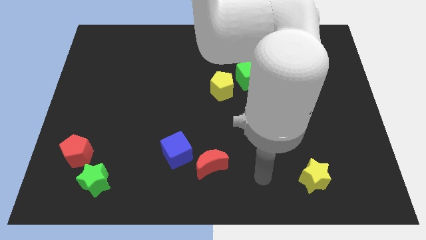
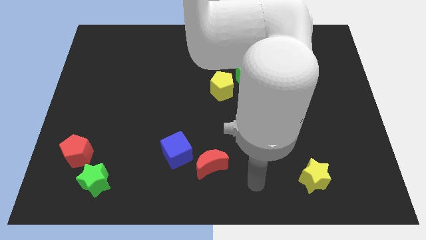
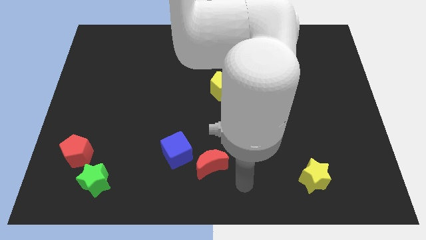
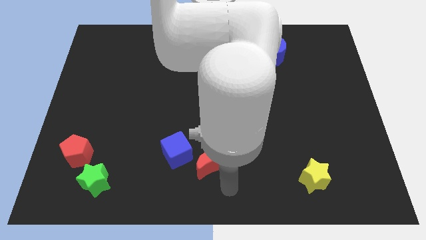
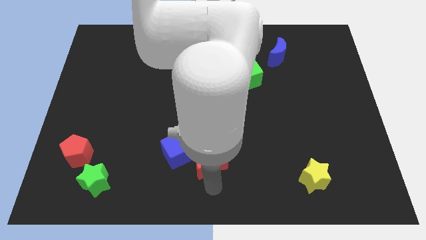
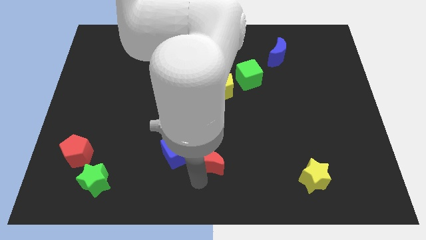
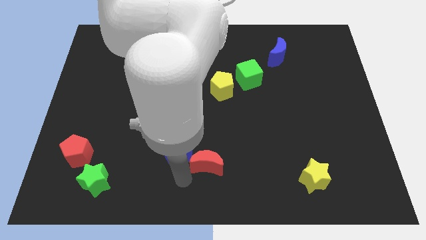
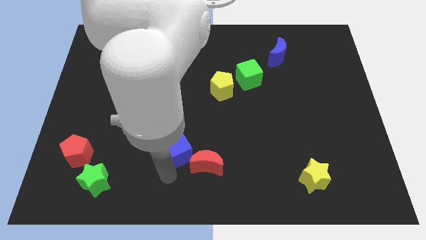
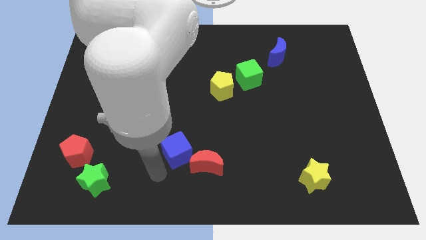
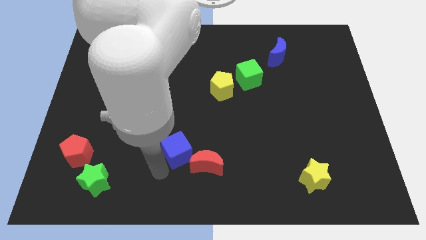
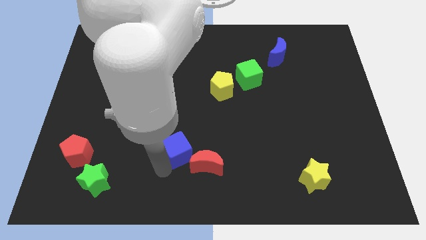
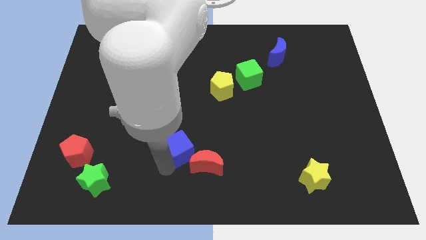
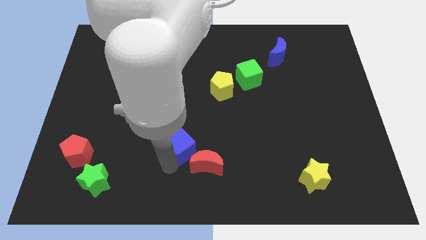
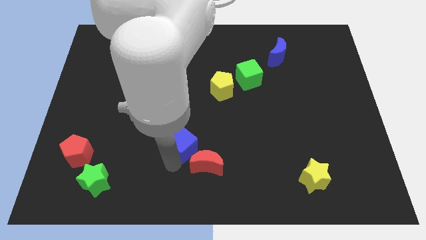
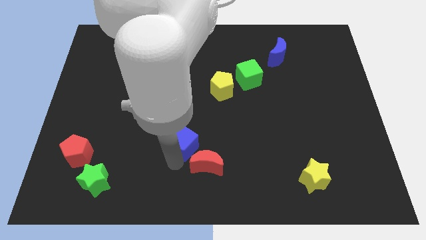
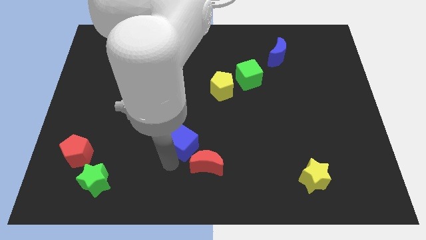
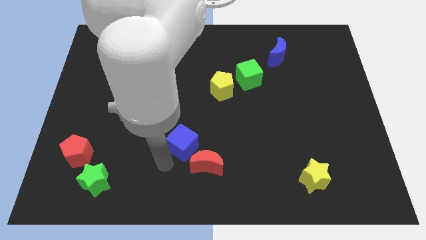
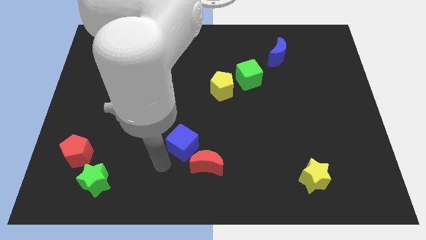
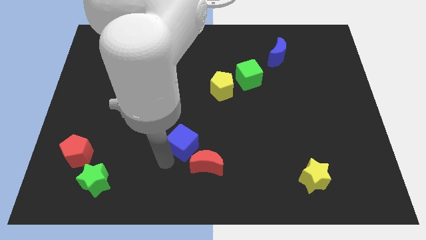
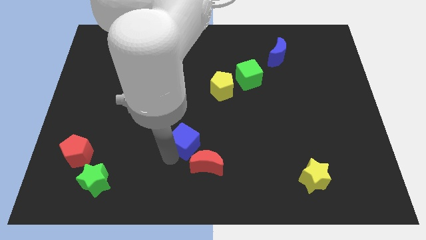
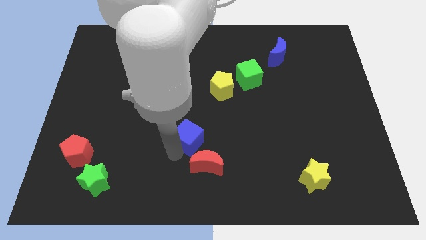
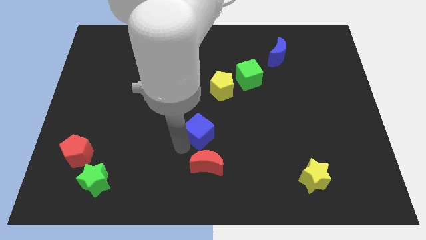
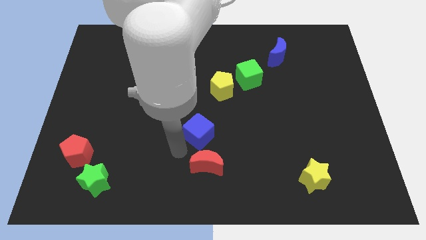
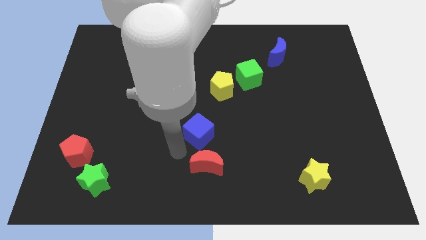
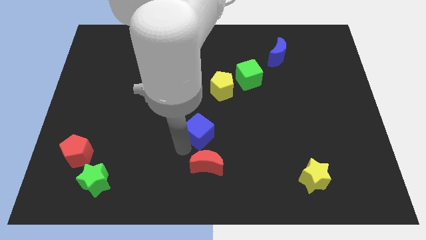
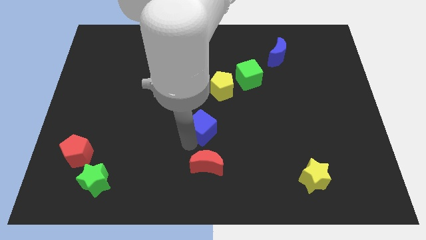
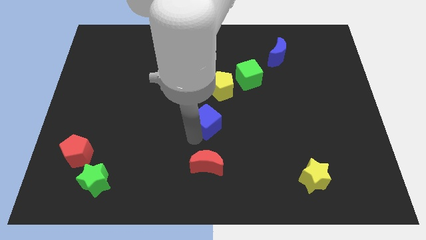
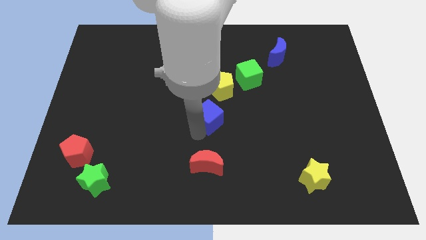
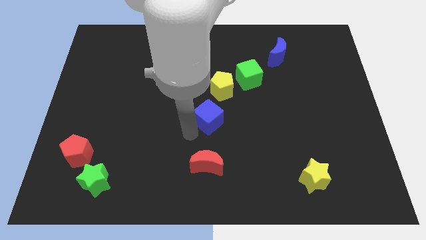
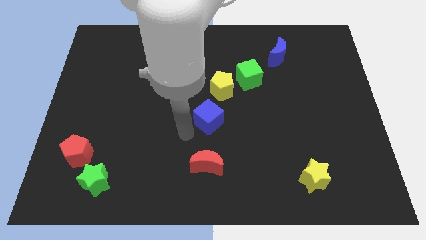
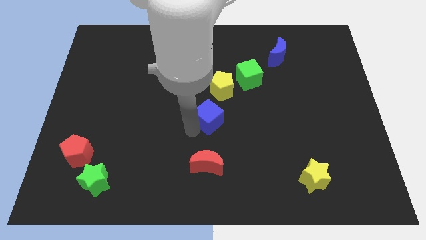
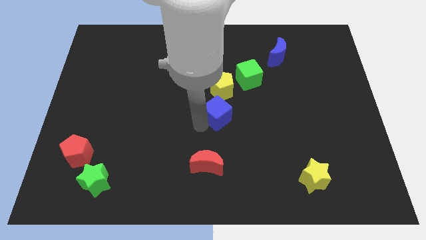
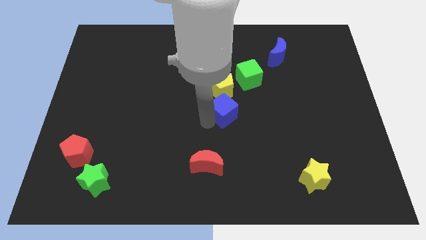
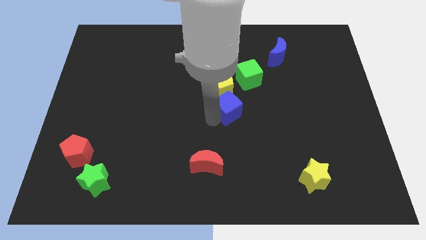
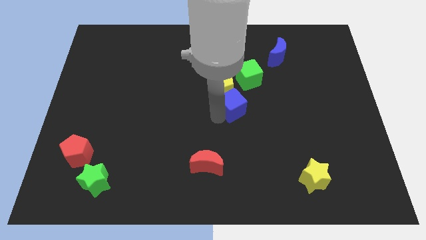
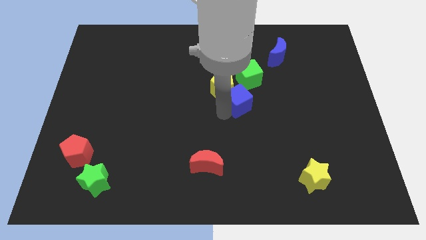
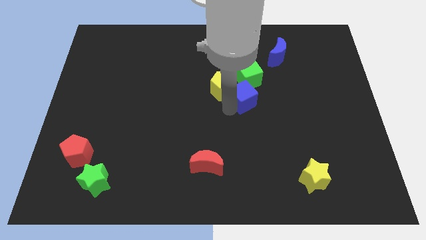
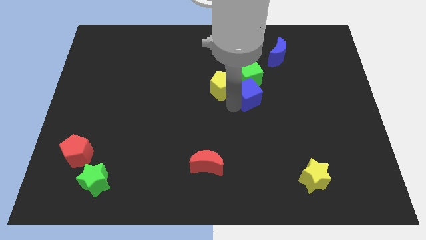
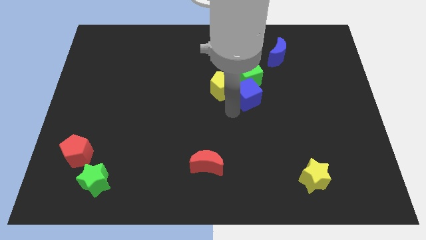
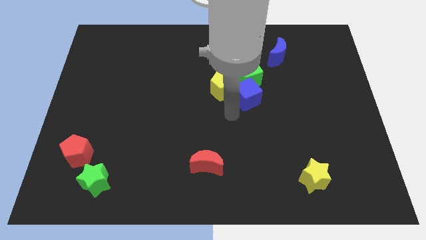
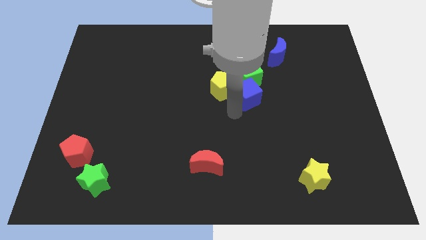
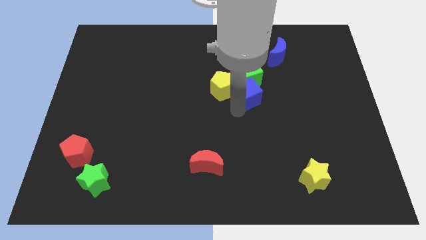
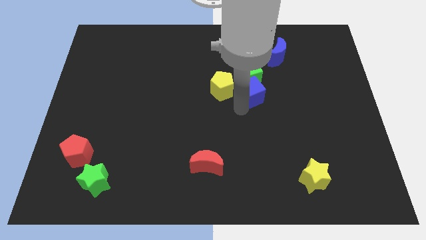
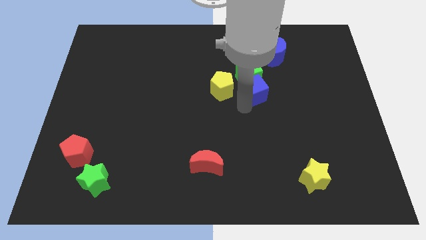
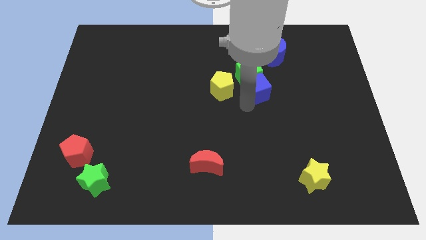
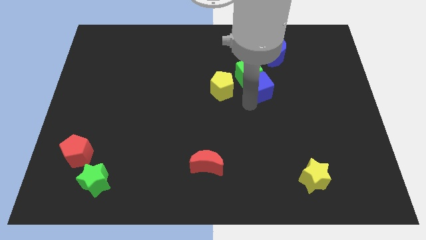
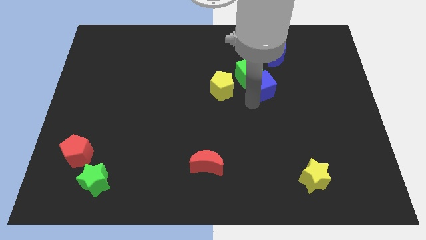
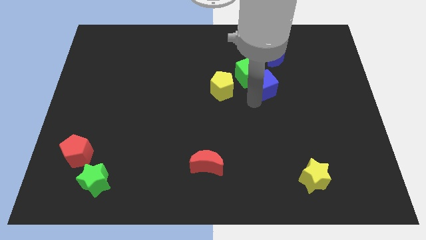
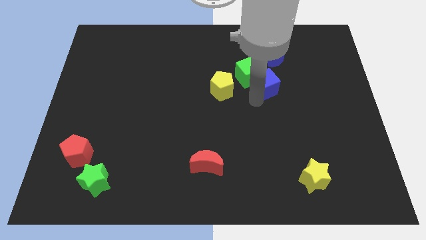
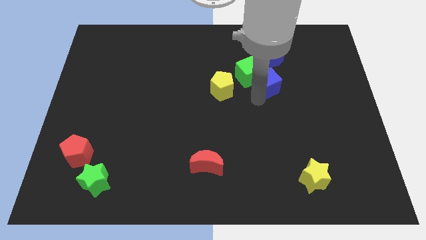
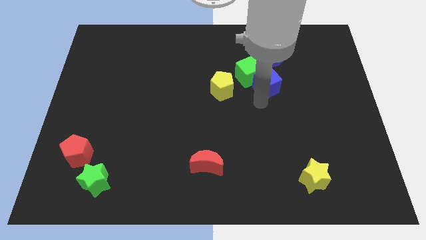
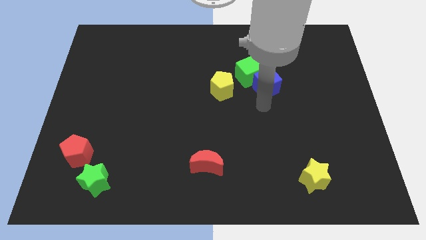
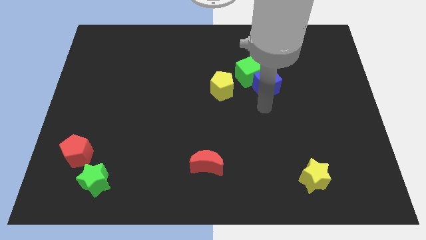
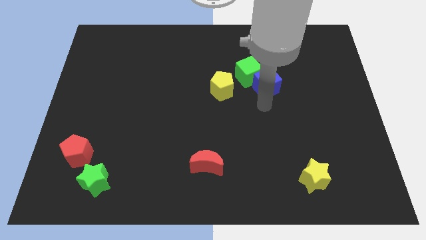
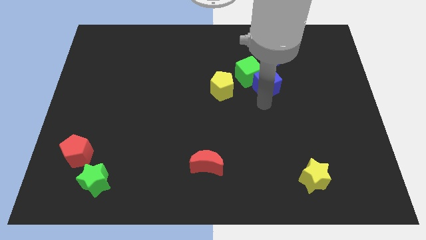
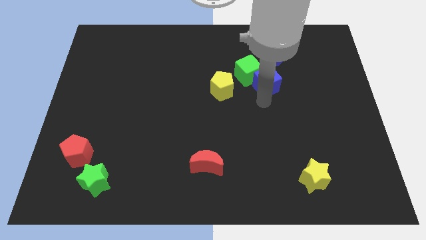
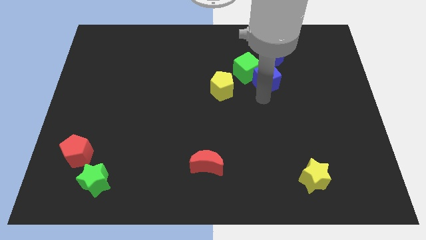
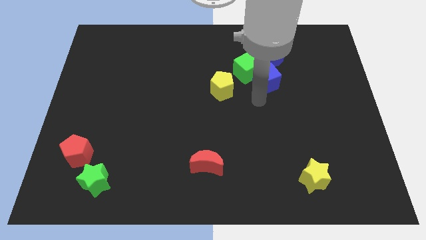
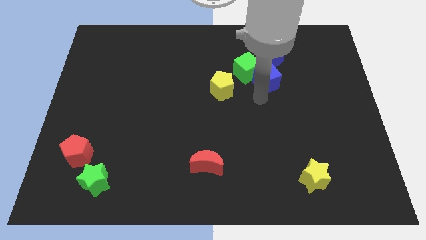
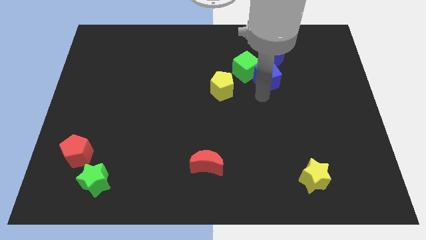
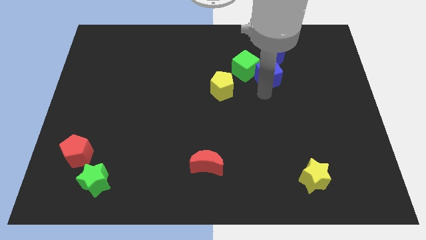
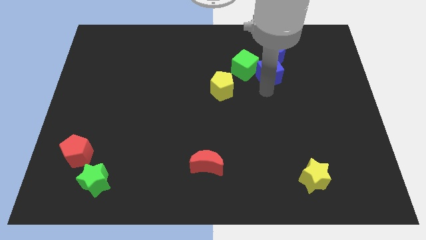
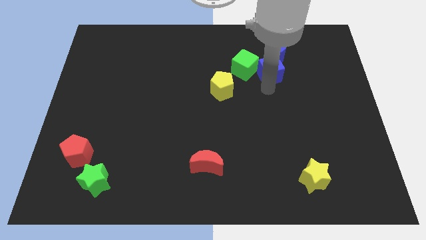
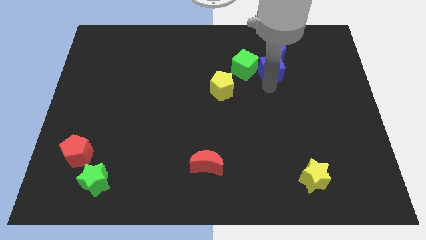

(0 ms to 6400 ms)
slide the blue cube close to the blue moon
